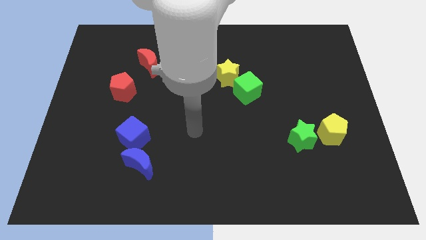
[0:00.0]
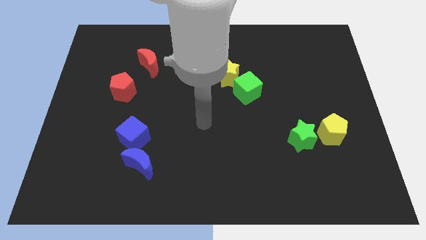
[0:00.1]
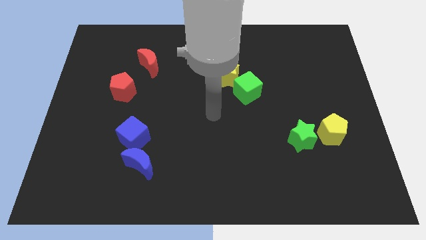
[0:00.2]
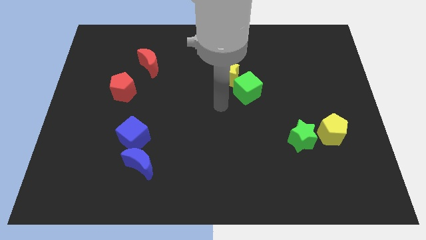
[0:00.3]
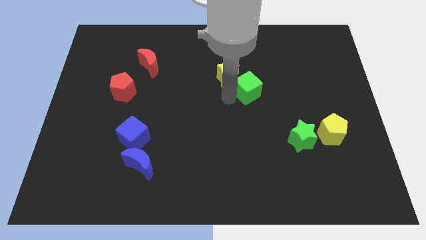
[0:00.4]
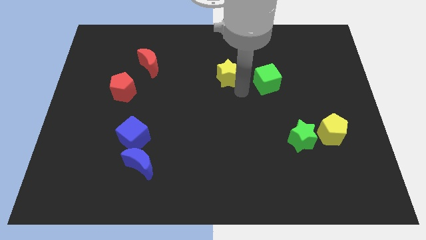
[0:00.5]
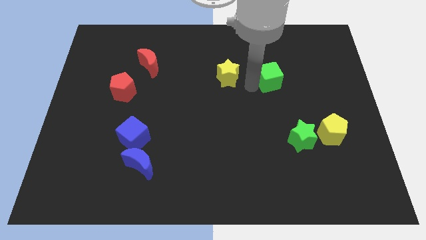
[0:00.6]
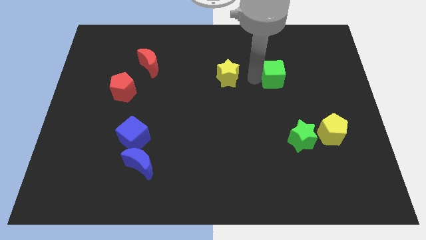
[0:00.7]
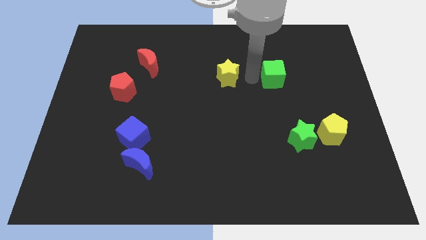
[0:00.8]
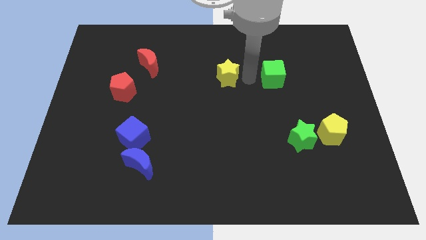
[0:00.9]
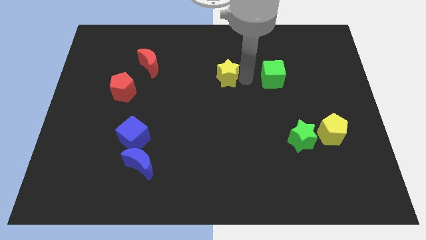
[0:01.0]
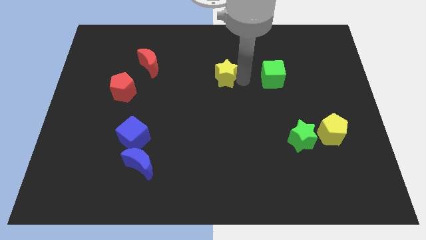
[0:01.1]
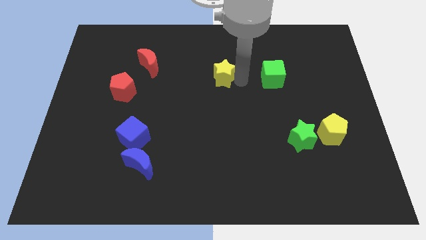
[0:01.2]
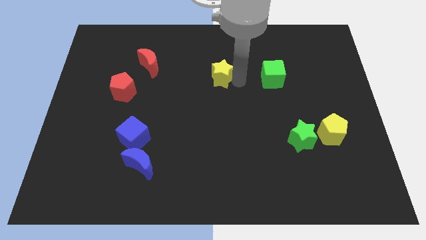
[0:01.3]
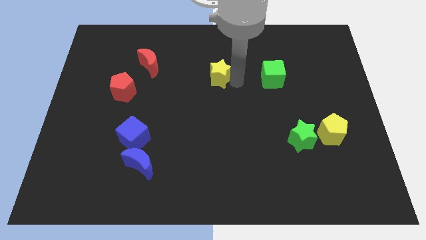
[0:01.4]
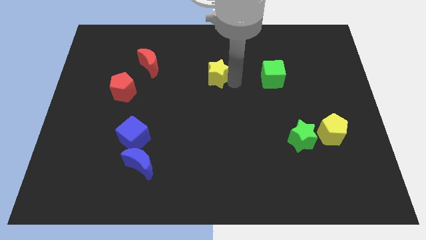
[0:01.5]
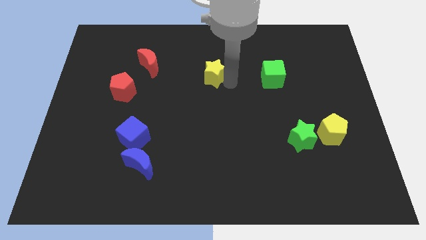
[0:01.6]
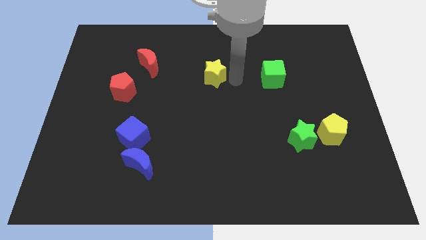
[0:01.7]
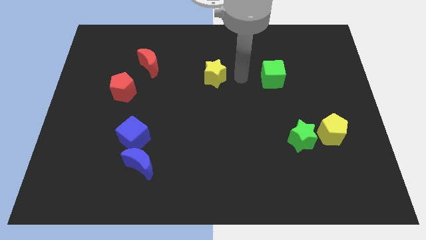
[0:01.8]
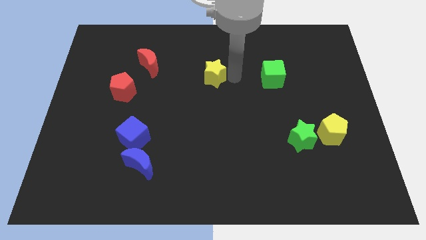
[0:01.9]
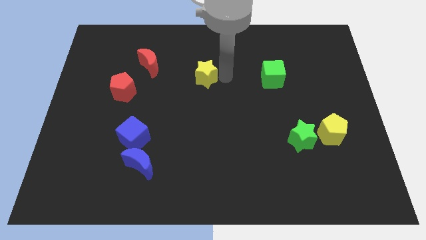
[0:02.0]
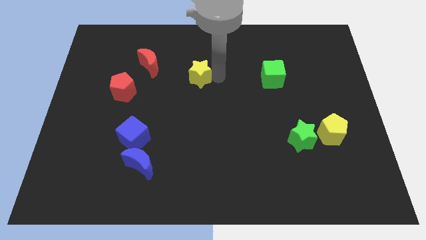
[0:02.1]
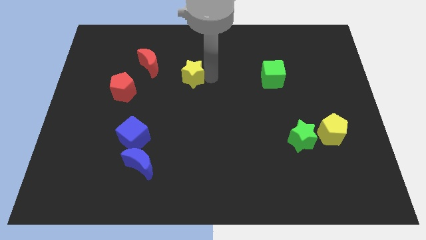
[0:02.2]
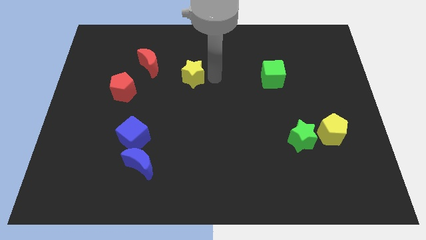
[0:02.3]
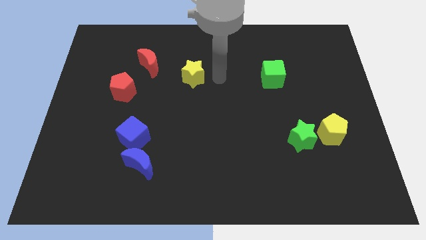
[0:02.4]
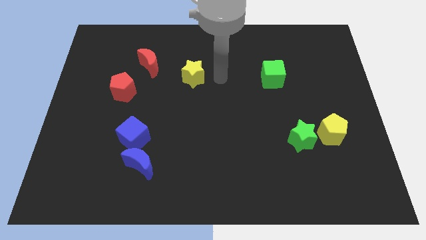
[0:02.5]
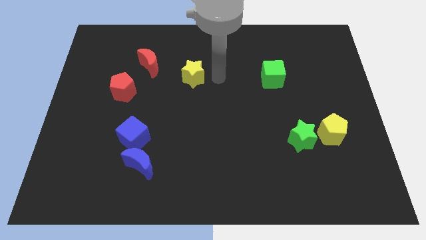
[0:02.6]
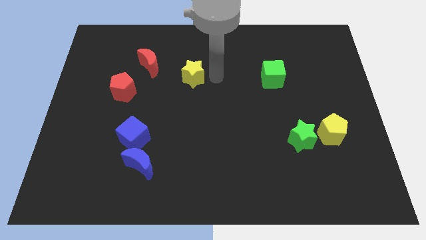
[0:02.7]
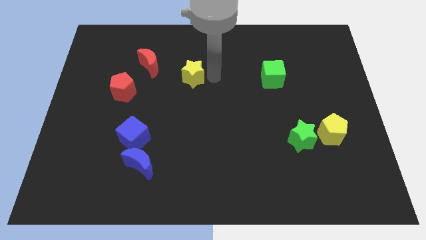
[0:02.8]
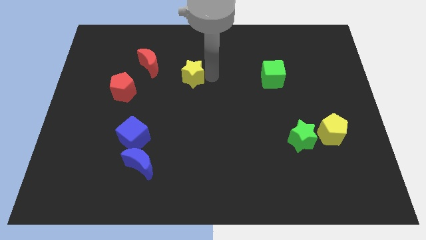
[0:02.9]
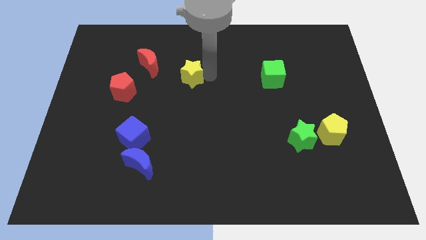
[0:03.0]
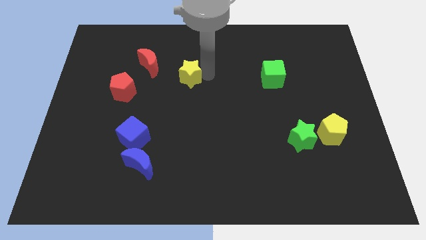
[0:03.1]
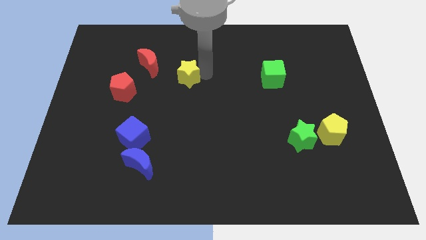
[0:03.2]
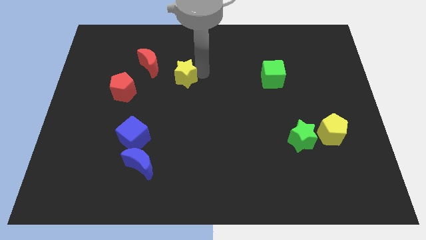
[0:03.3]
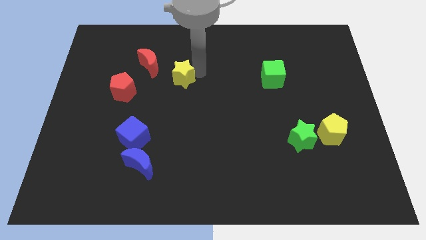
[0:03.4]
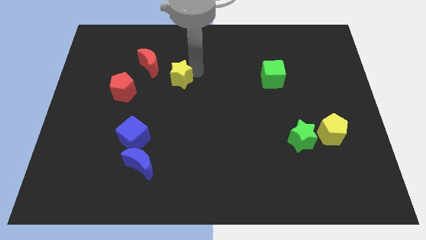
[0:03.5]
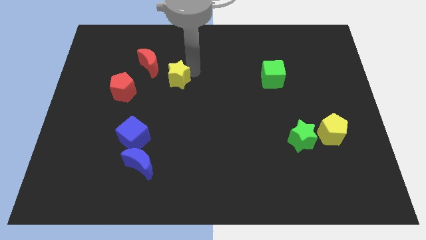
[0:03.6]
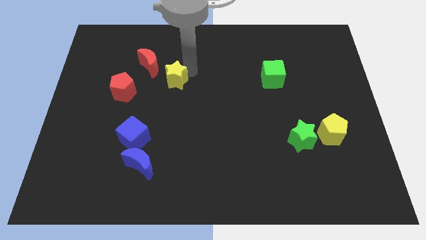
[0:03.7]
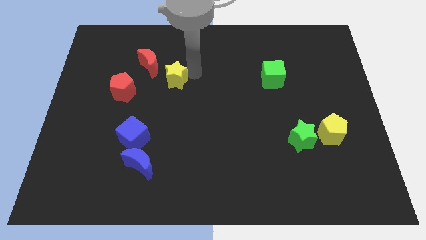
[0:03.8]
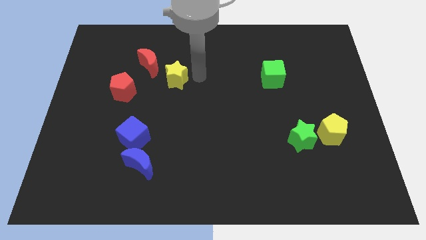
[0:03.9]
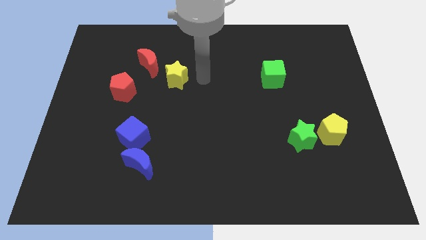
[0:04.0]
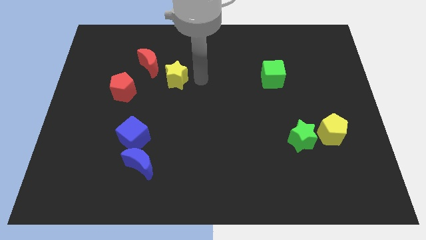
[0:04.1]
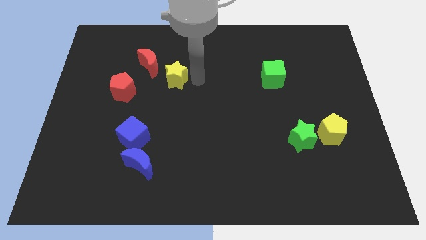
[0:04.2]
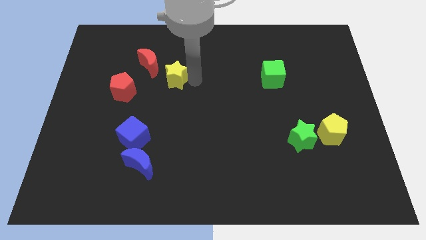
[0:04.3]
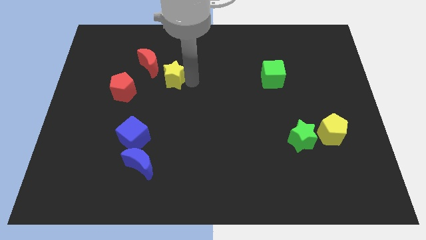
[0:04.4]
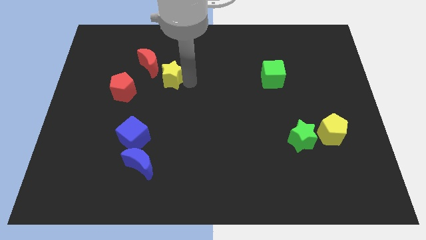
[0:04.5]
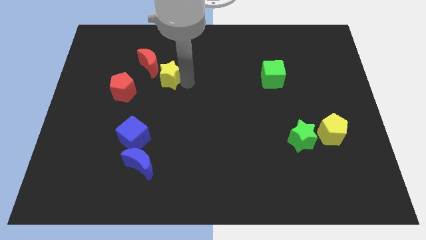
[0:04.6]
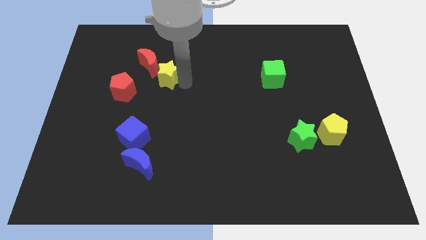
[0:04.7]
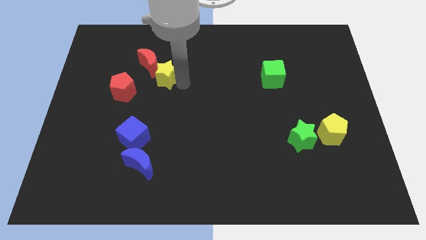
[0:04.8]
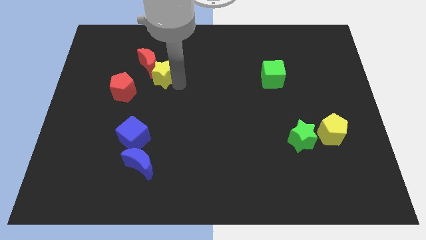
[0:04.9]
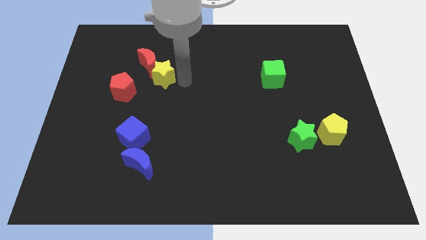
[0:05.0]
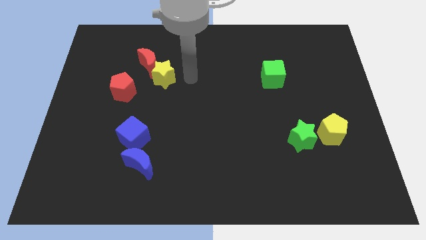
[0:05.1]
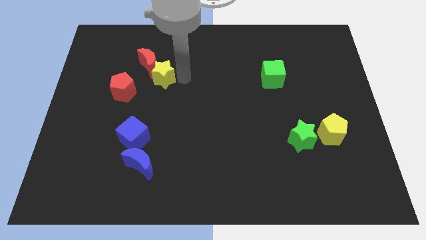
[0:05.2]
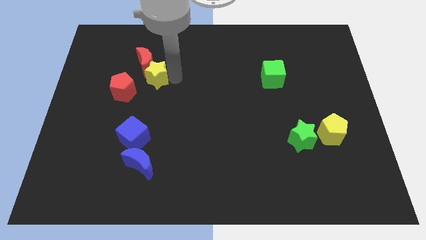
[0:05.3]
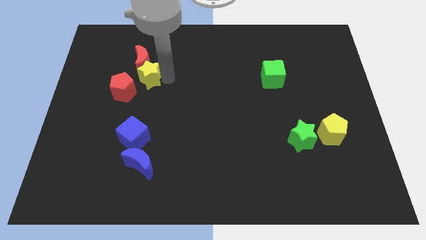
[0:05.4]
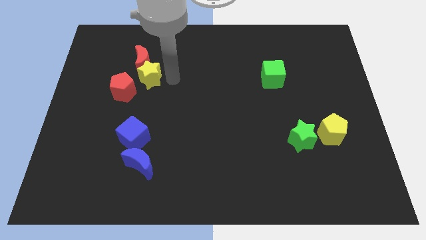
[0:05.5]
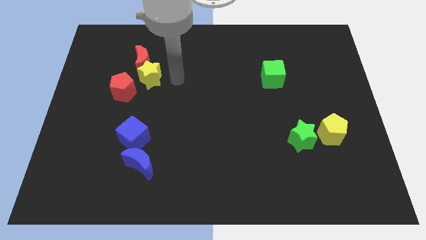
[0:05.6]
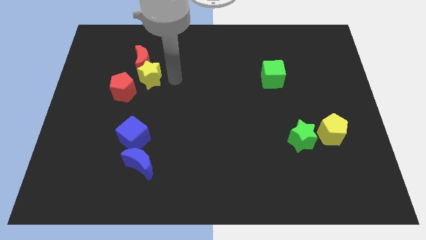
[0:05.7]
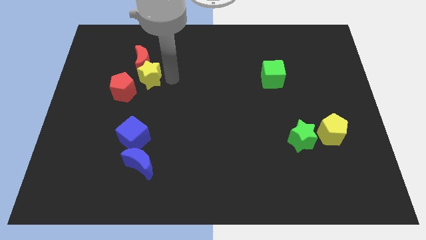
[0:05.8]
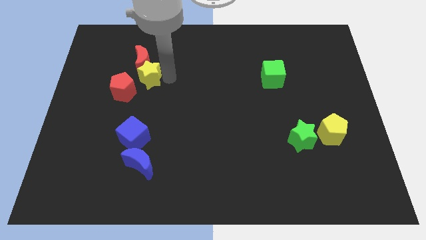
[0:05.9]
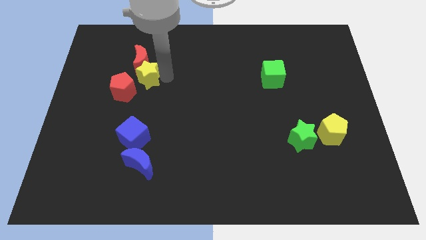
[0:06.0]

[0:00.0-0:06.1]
move the yellow star left

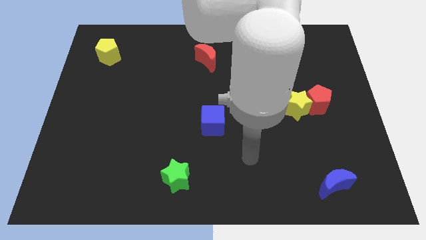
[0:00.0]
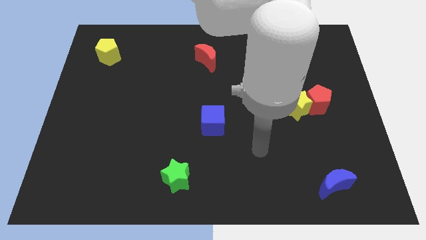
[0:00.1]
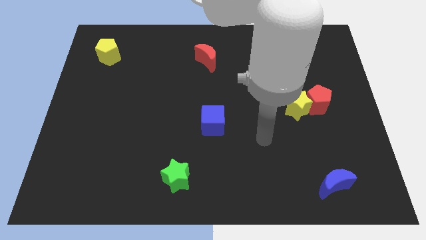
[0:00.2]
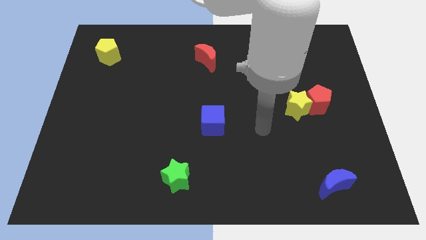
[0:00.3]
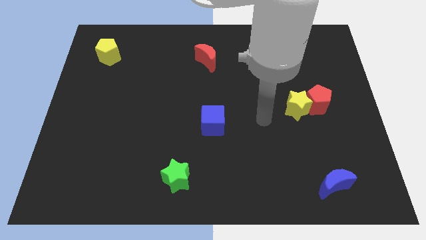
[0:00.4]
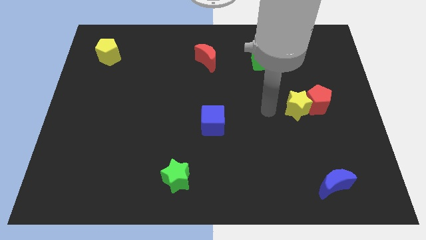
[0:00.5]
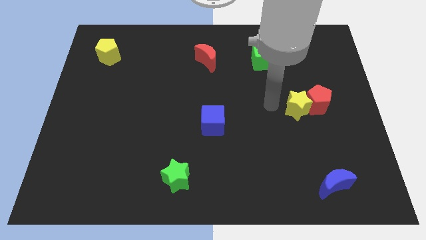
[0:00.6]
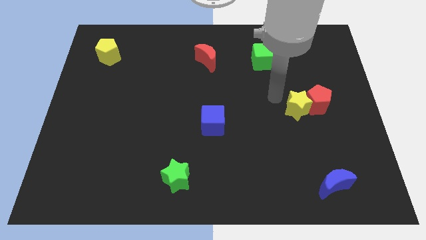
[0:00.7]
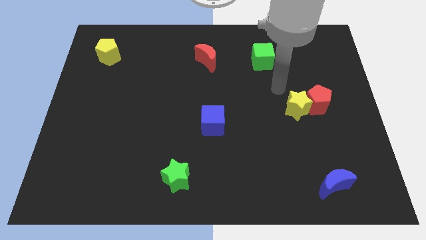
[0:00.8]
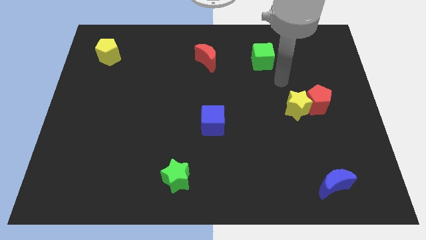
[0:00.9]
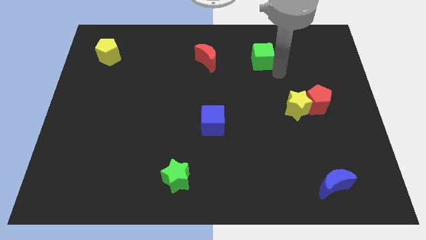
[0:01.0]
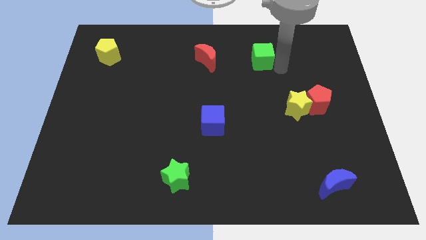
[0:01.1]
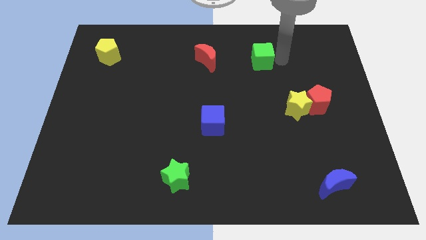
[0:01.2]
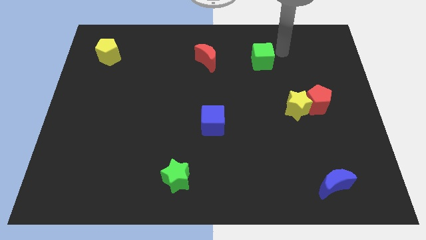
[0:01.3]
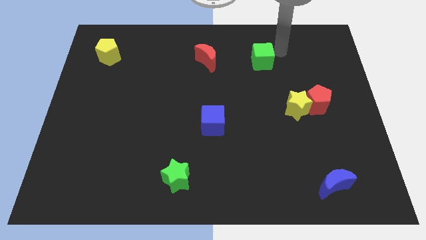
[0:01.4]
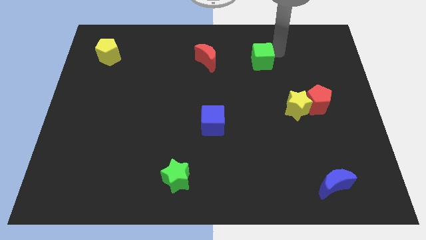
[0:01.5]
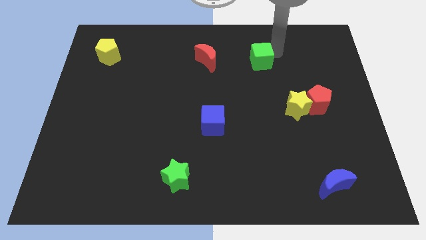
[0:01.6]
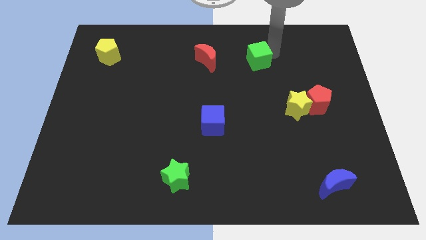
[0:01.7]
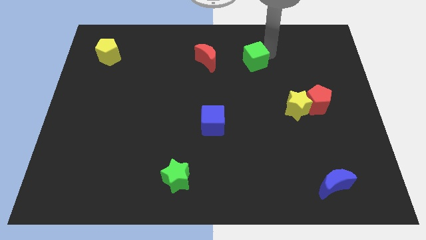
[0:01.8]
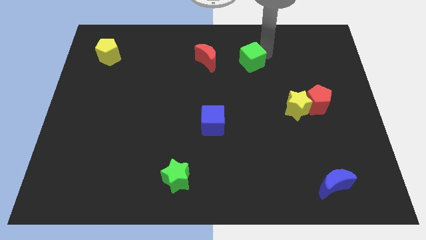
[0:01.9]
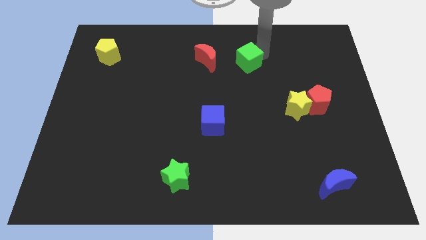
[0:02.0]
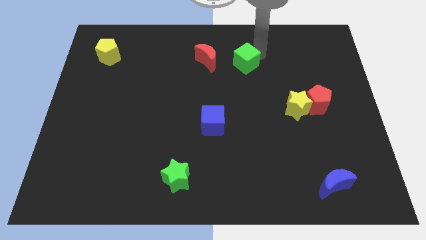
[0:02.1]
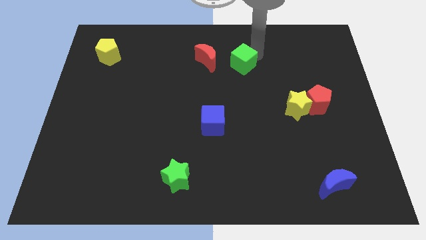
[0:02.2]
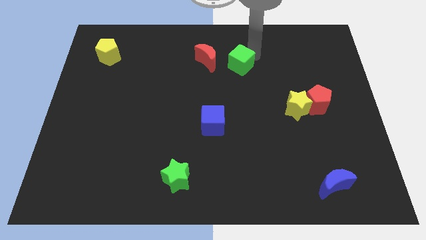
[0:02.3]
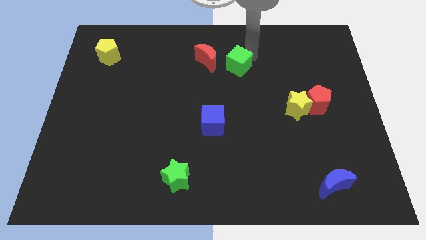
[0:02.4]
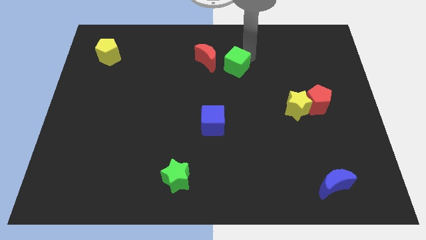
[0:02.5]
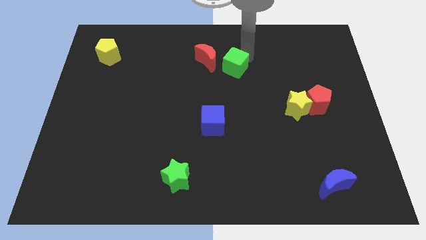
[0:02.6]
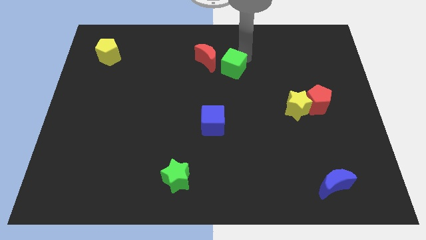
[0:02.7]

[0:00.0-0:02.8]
move the green cube diagonally downwards and left a little
